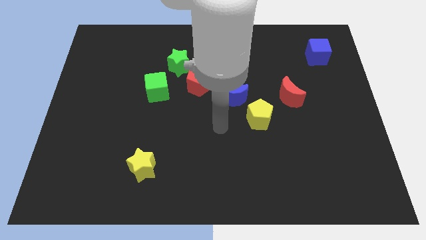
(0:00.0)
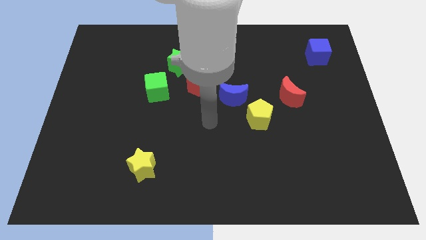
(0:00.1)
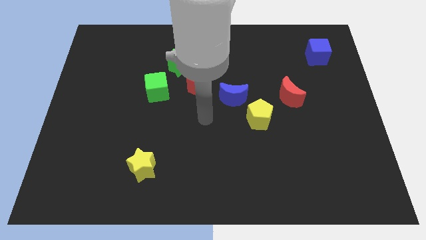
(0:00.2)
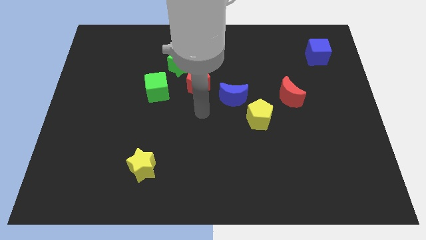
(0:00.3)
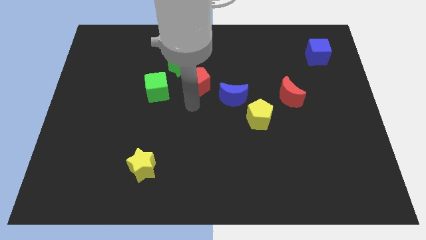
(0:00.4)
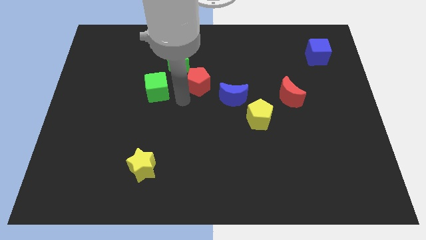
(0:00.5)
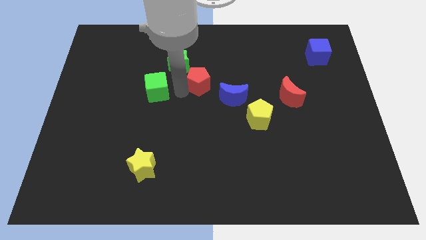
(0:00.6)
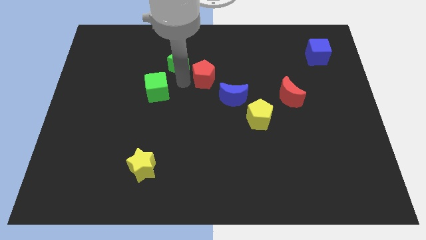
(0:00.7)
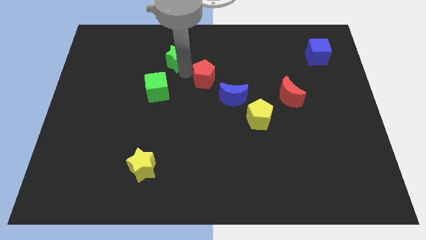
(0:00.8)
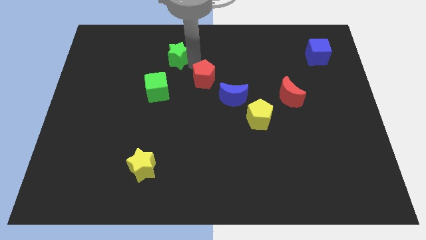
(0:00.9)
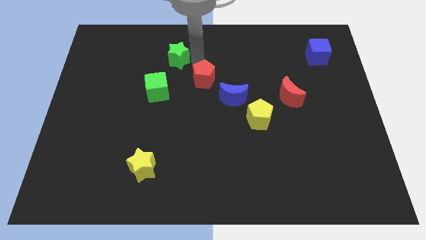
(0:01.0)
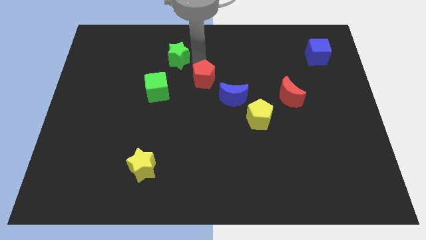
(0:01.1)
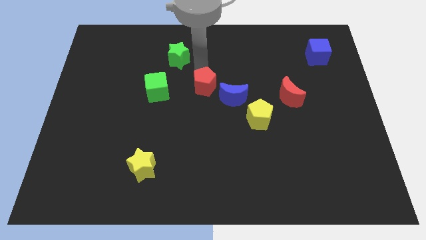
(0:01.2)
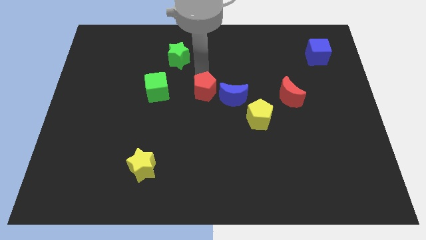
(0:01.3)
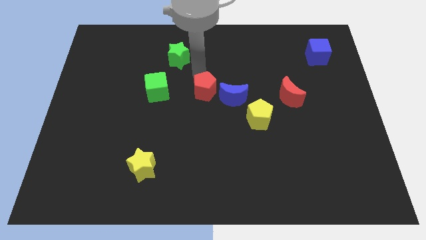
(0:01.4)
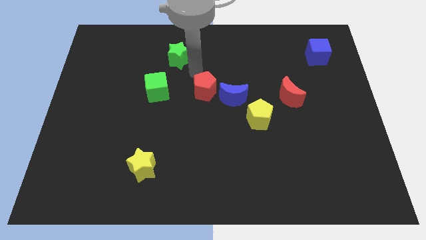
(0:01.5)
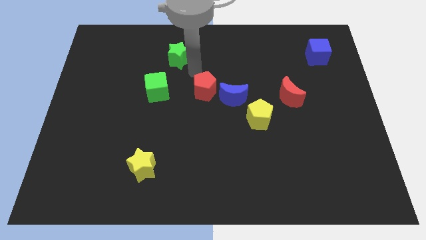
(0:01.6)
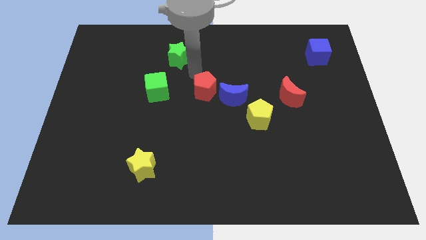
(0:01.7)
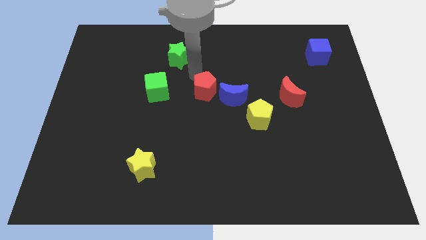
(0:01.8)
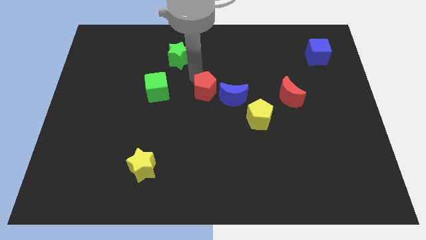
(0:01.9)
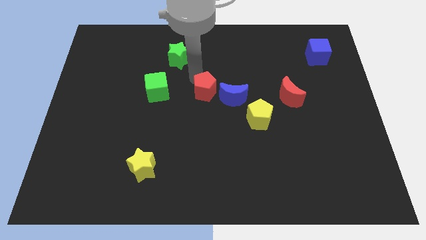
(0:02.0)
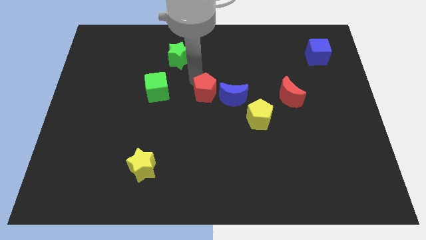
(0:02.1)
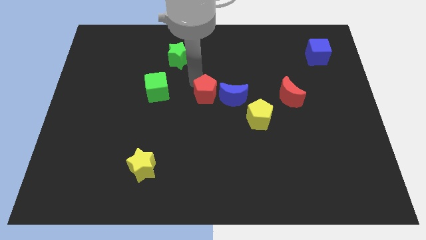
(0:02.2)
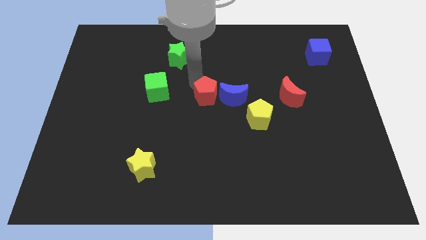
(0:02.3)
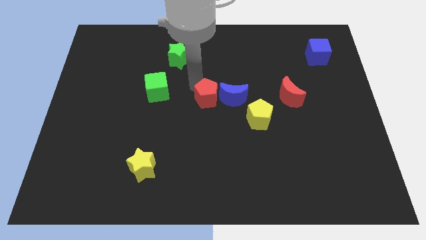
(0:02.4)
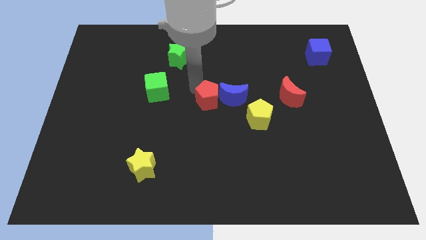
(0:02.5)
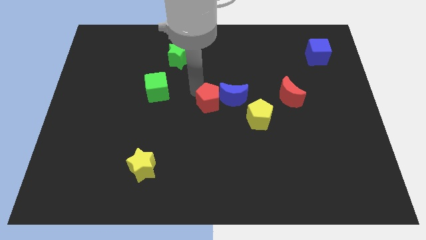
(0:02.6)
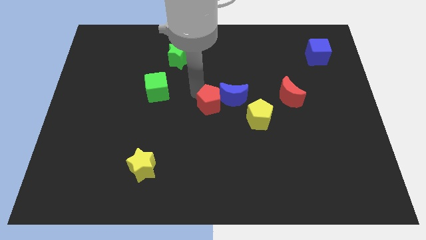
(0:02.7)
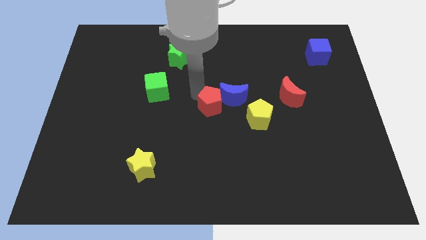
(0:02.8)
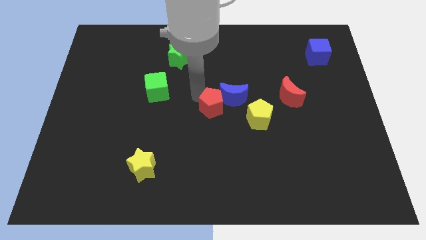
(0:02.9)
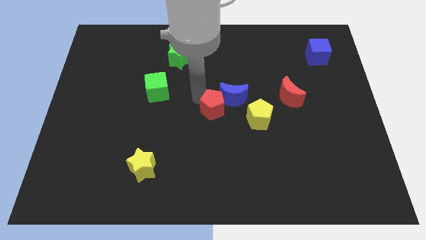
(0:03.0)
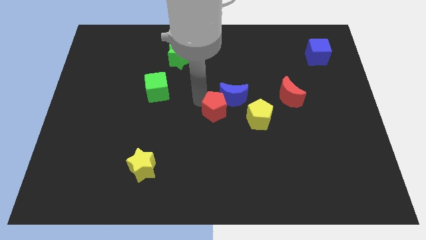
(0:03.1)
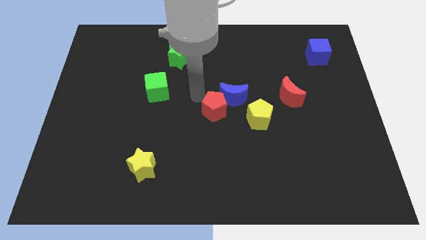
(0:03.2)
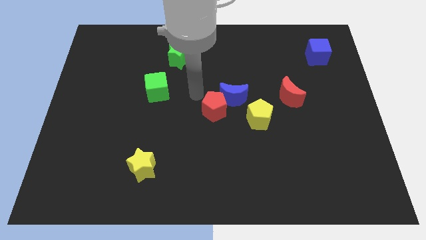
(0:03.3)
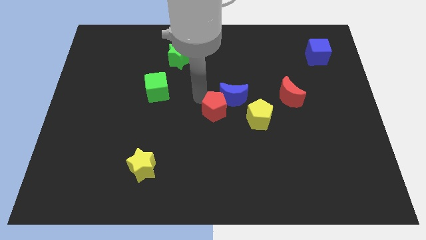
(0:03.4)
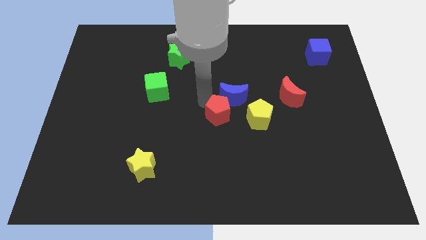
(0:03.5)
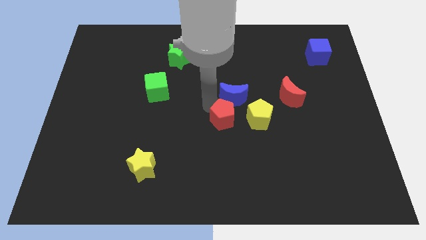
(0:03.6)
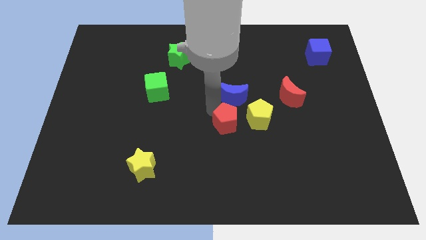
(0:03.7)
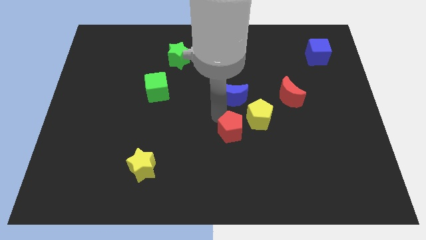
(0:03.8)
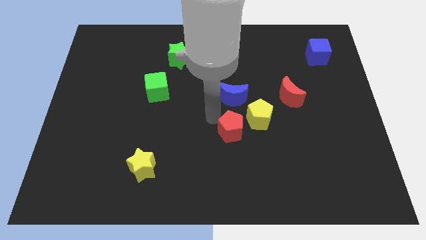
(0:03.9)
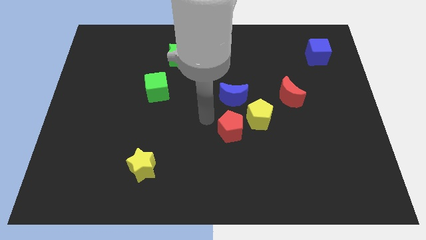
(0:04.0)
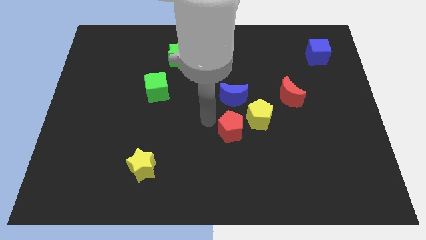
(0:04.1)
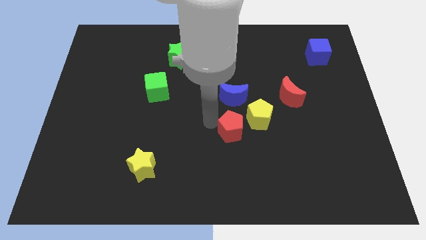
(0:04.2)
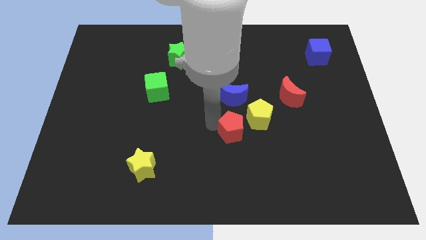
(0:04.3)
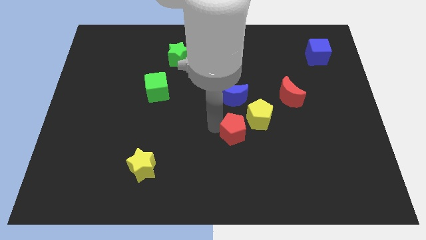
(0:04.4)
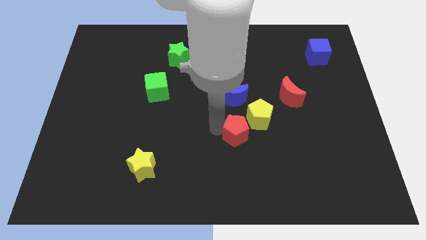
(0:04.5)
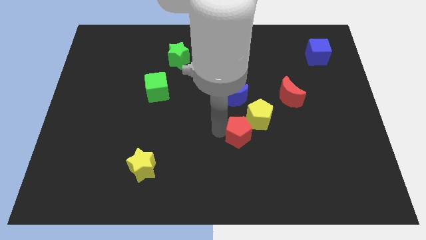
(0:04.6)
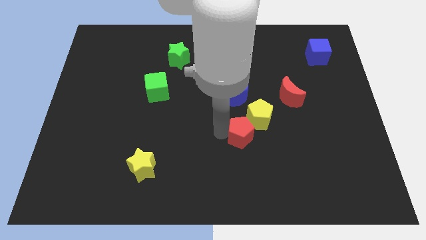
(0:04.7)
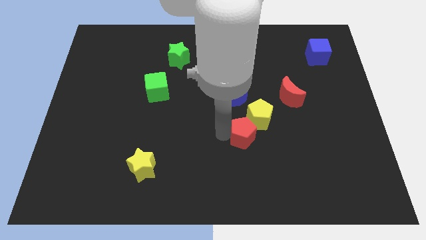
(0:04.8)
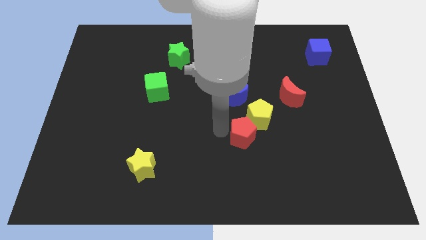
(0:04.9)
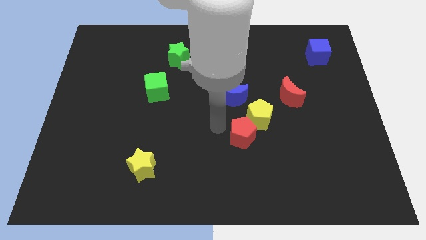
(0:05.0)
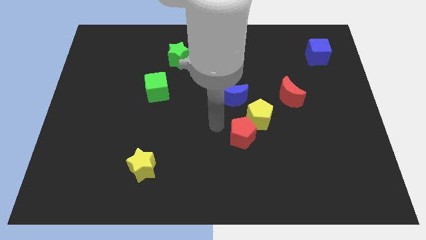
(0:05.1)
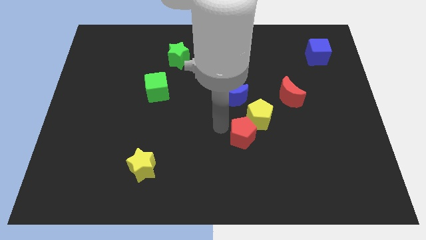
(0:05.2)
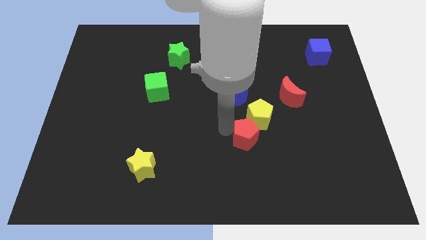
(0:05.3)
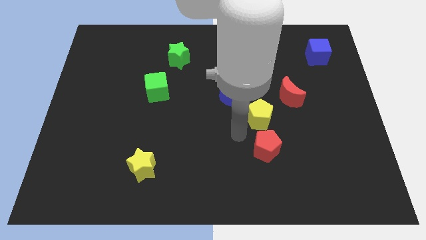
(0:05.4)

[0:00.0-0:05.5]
slide the red pentagon down and right diagonally

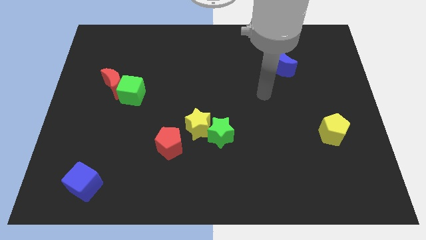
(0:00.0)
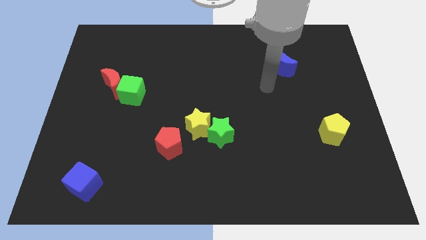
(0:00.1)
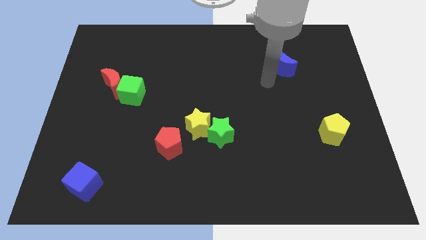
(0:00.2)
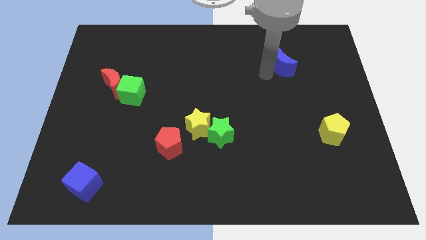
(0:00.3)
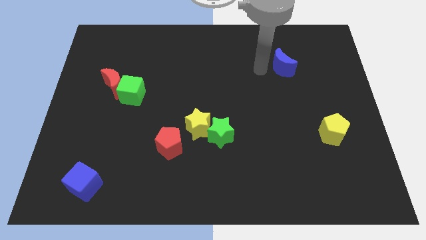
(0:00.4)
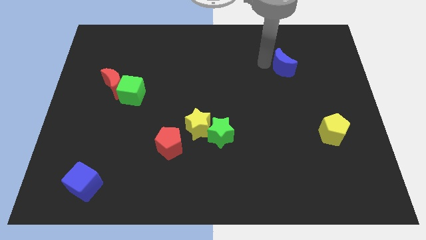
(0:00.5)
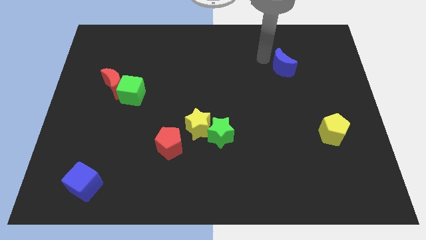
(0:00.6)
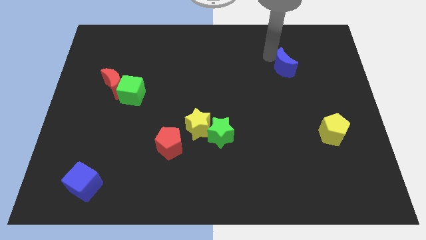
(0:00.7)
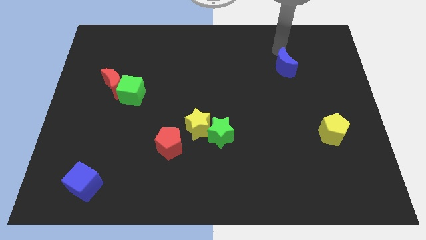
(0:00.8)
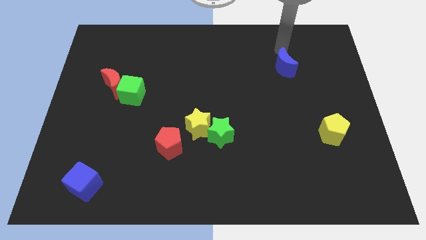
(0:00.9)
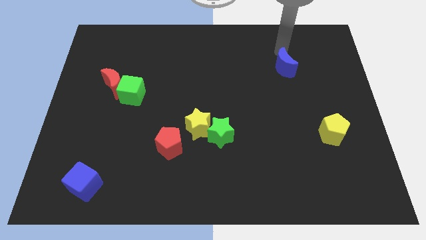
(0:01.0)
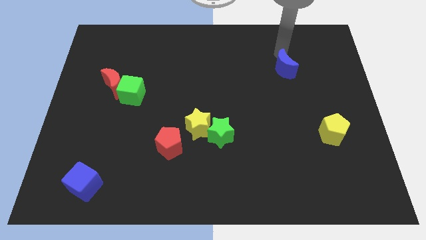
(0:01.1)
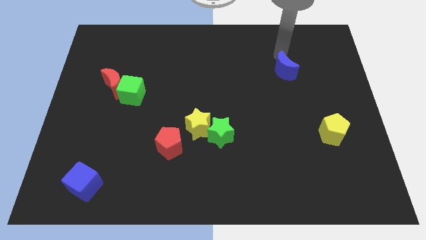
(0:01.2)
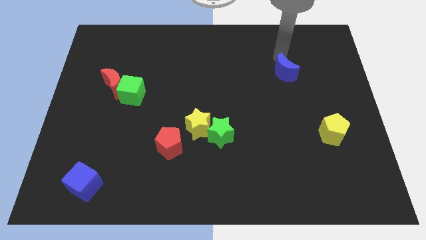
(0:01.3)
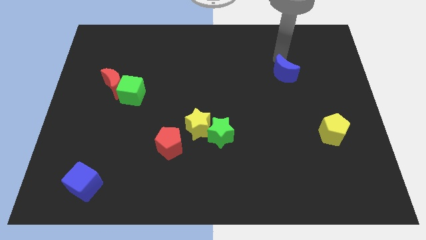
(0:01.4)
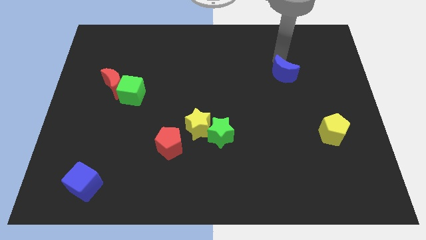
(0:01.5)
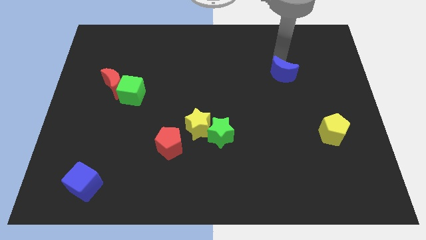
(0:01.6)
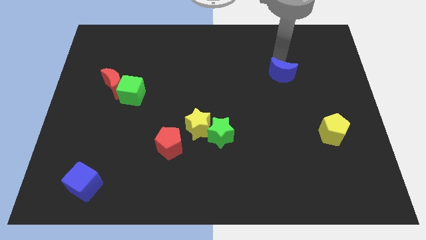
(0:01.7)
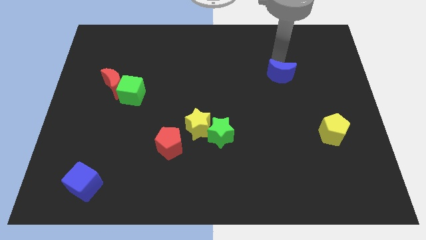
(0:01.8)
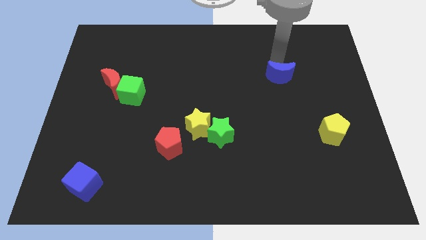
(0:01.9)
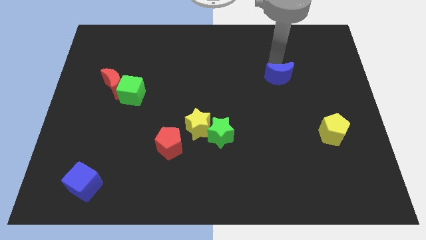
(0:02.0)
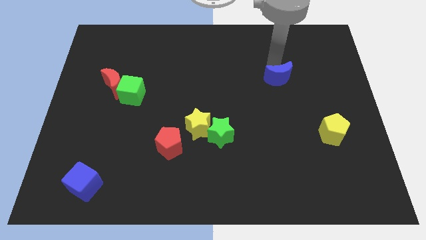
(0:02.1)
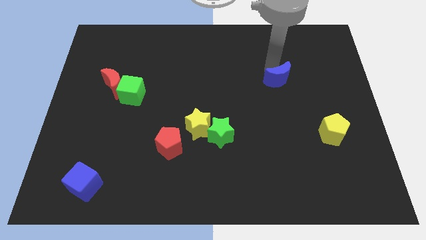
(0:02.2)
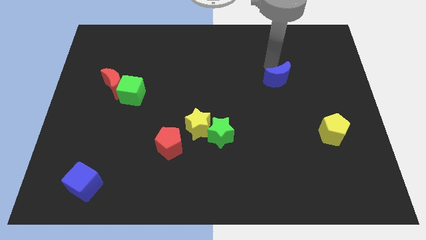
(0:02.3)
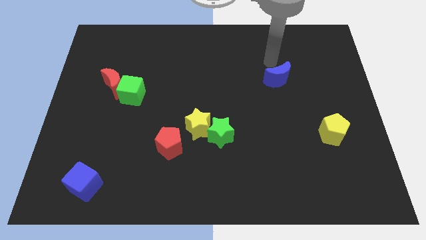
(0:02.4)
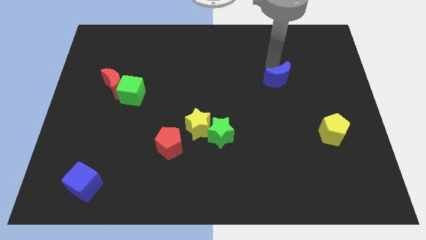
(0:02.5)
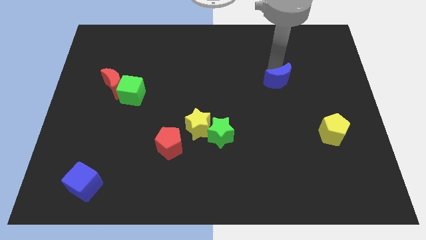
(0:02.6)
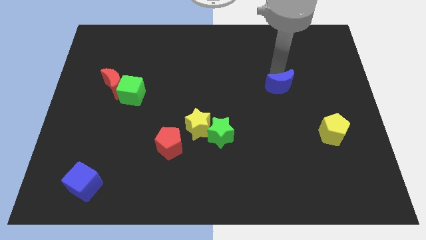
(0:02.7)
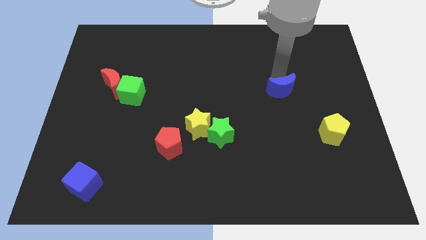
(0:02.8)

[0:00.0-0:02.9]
push the blue moon downwards a bit
